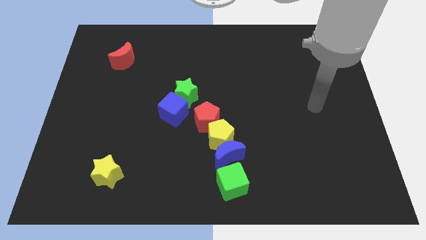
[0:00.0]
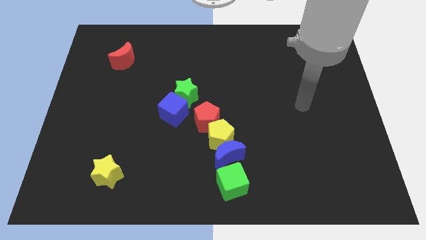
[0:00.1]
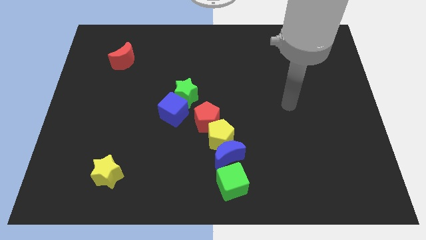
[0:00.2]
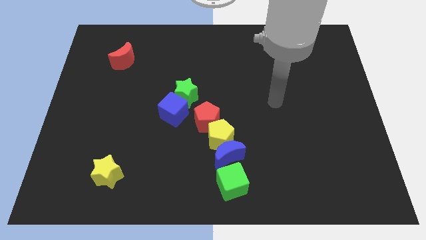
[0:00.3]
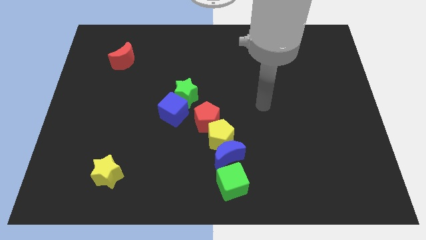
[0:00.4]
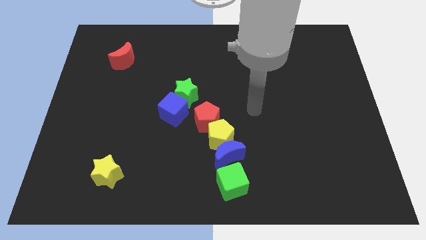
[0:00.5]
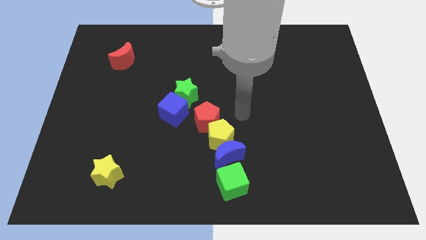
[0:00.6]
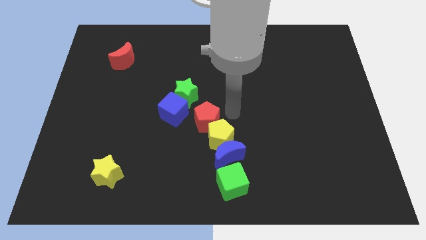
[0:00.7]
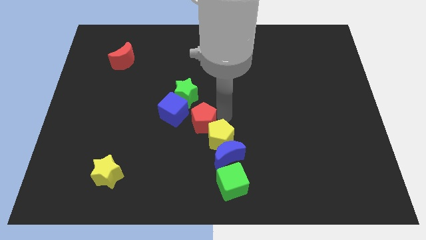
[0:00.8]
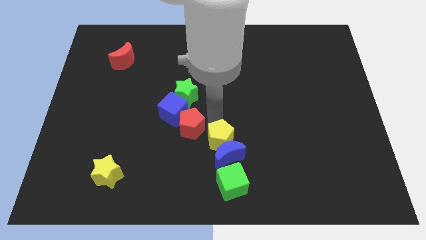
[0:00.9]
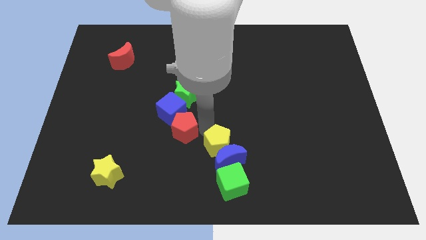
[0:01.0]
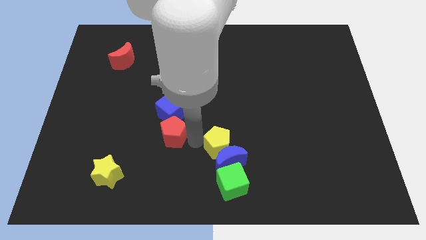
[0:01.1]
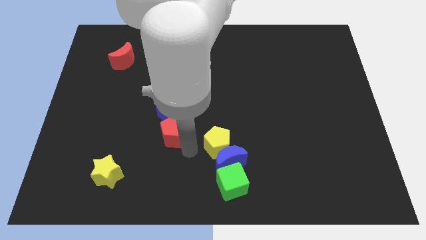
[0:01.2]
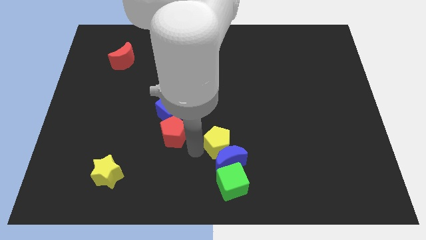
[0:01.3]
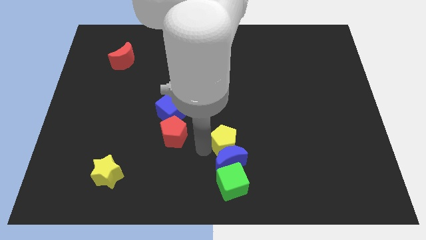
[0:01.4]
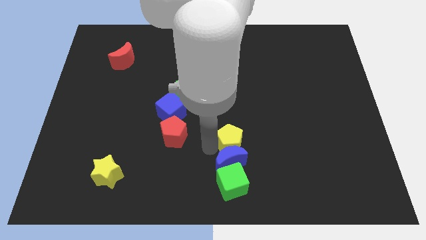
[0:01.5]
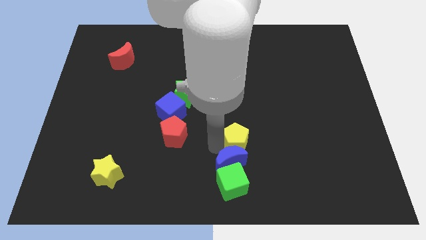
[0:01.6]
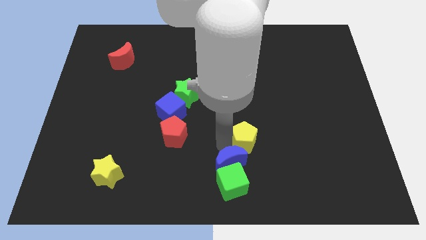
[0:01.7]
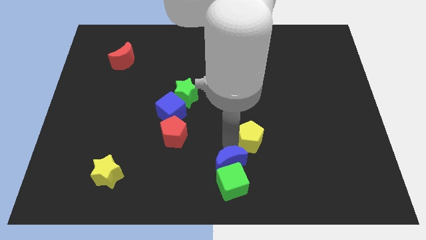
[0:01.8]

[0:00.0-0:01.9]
separate the yellow pentagon from the blue moon and red pentagon

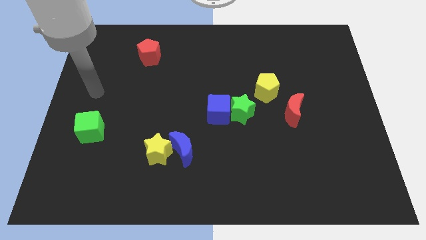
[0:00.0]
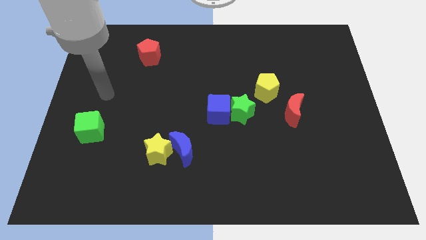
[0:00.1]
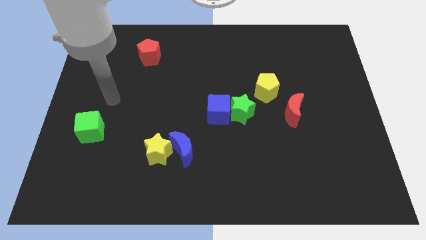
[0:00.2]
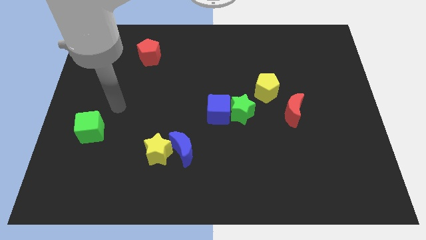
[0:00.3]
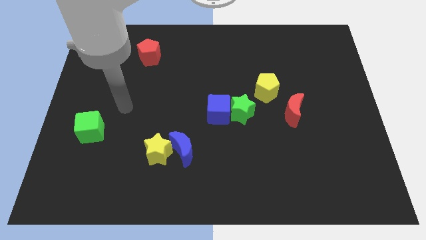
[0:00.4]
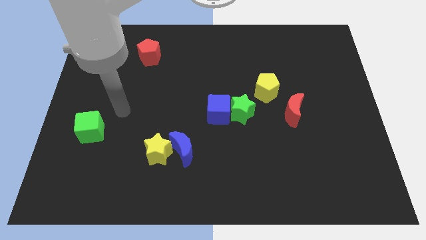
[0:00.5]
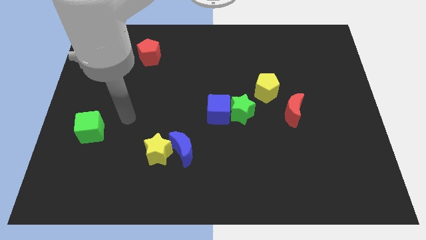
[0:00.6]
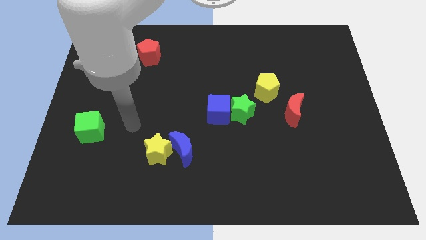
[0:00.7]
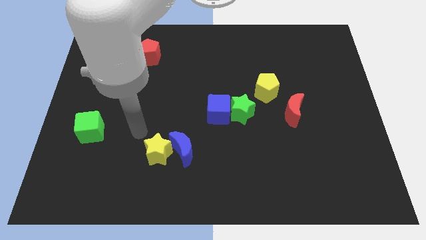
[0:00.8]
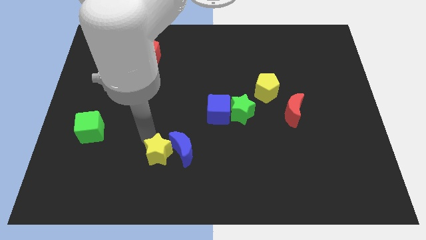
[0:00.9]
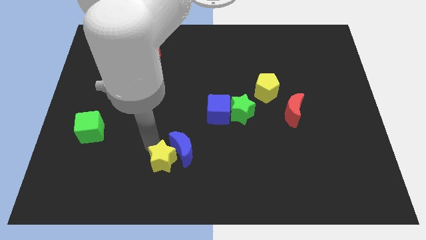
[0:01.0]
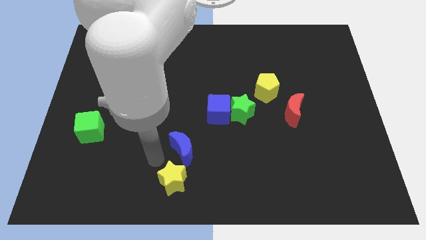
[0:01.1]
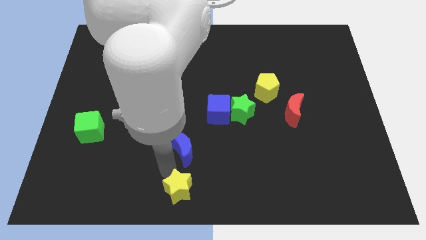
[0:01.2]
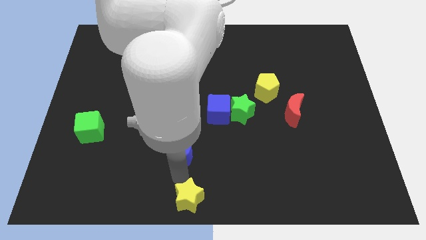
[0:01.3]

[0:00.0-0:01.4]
move the blue moon away from the yellow star

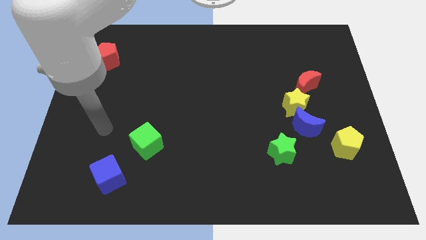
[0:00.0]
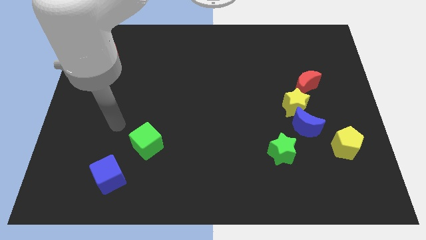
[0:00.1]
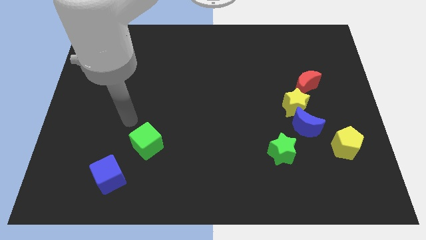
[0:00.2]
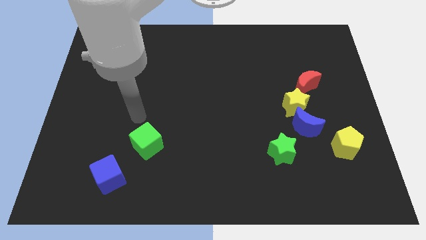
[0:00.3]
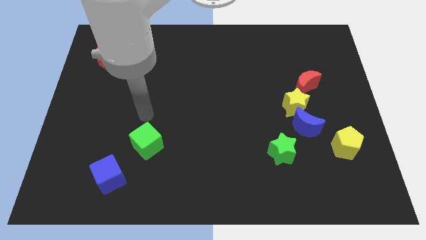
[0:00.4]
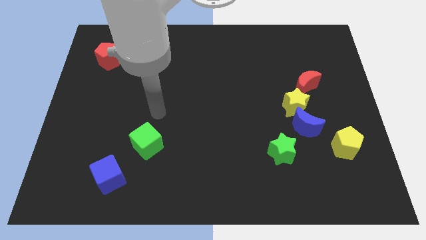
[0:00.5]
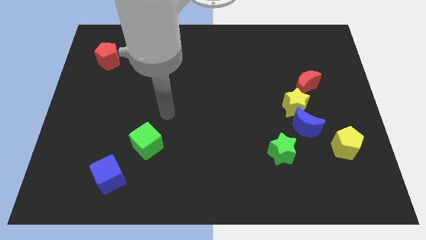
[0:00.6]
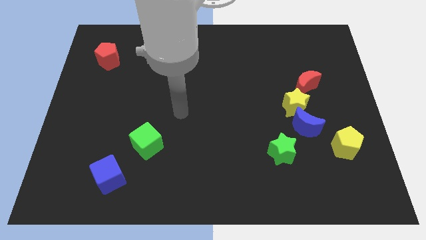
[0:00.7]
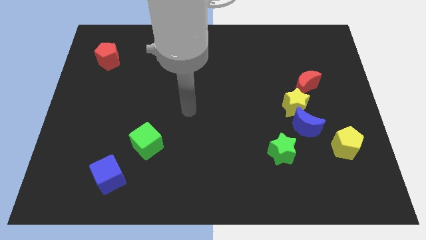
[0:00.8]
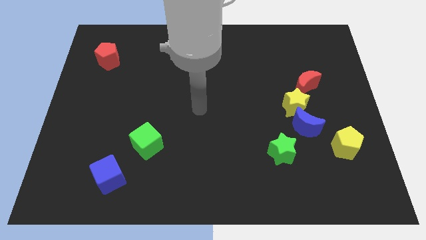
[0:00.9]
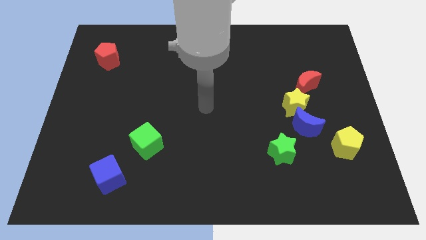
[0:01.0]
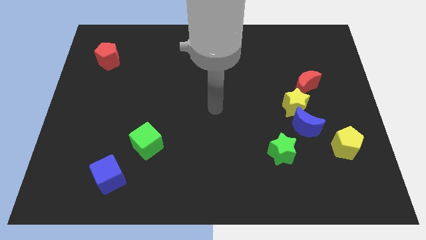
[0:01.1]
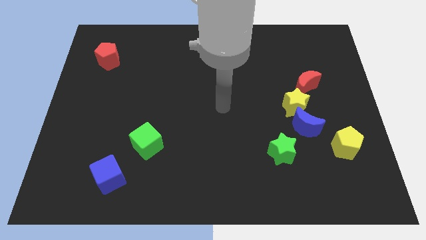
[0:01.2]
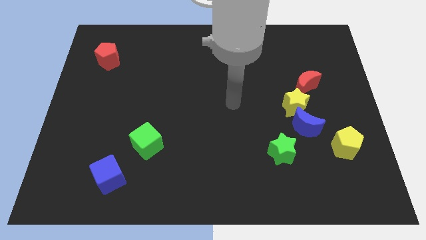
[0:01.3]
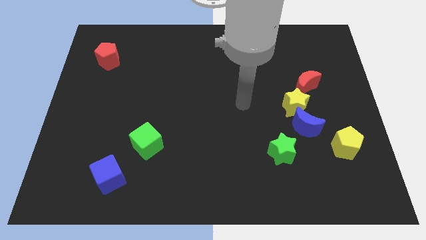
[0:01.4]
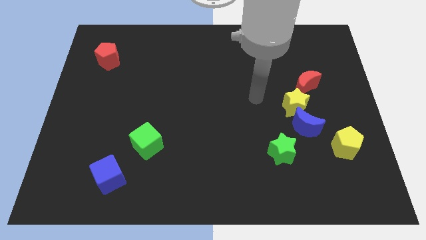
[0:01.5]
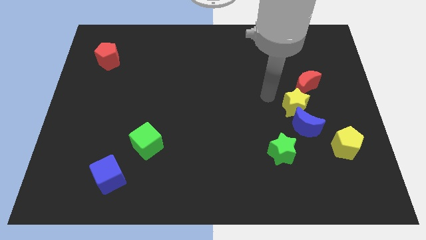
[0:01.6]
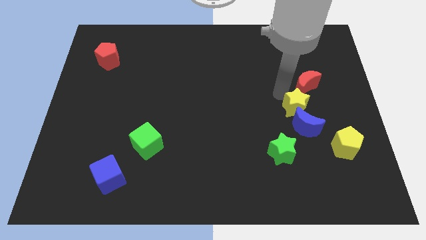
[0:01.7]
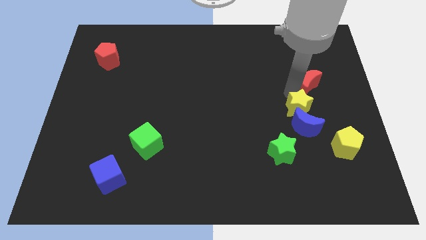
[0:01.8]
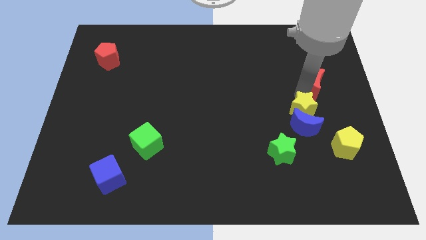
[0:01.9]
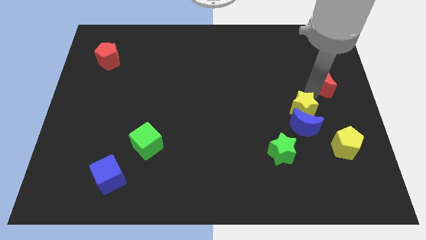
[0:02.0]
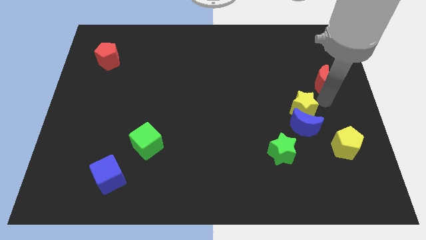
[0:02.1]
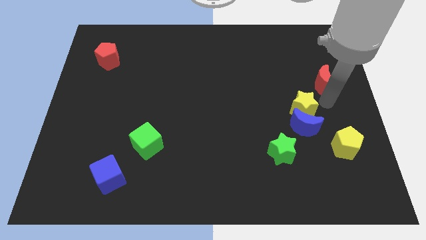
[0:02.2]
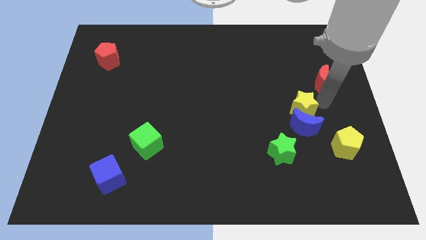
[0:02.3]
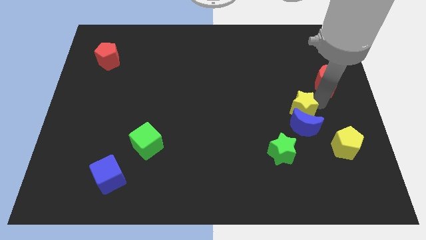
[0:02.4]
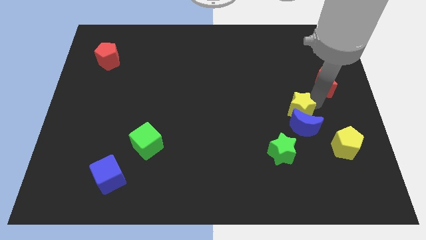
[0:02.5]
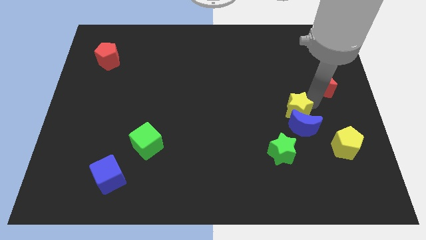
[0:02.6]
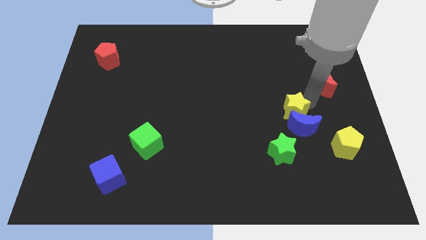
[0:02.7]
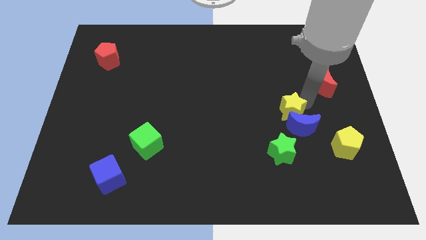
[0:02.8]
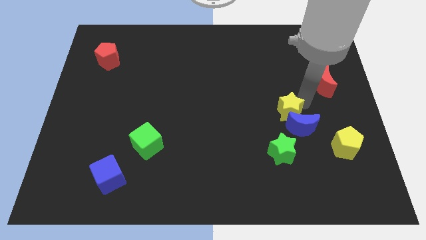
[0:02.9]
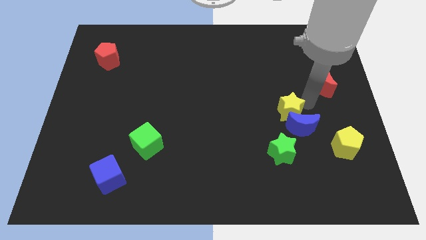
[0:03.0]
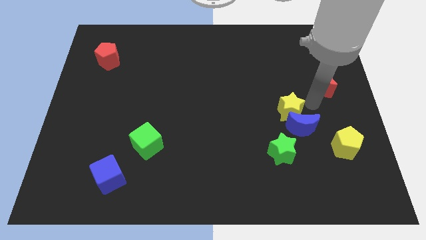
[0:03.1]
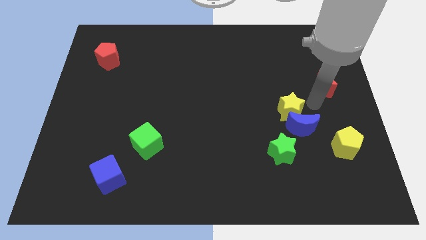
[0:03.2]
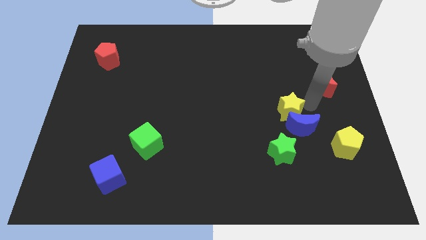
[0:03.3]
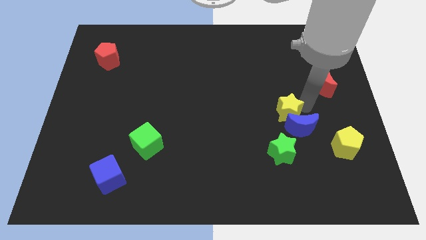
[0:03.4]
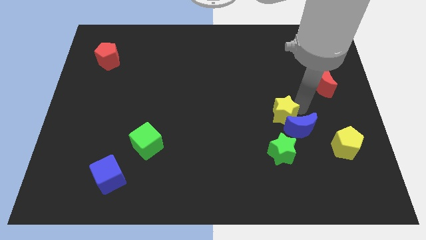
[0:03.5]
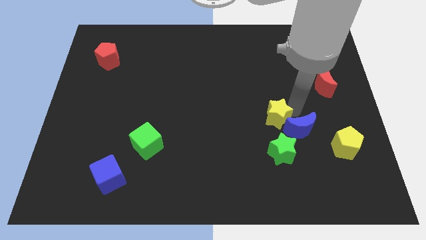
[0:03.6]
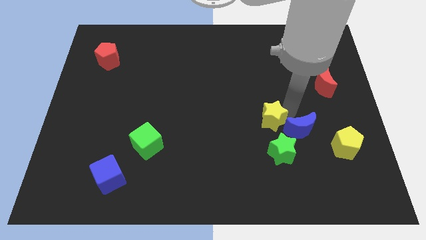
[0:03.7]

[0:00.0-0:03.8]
pull the yellow star apart from the blue moon and red moon

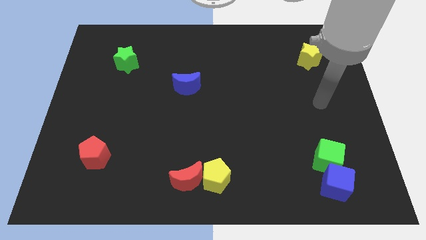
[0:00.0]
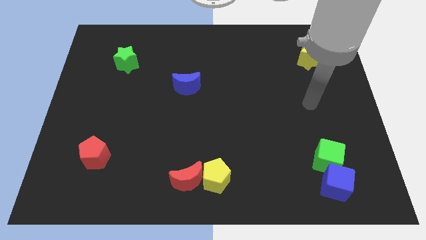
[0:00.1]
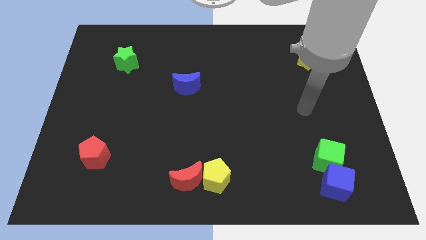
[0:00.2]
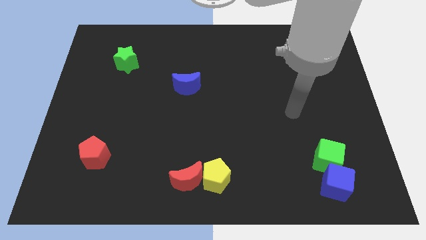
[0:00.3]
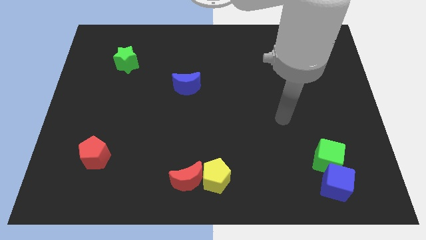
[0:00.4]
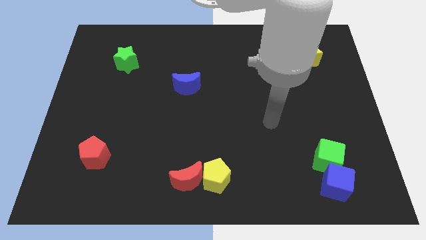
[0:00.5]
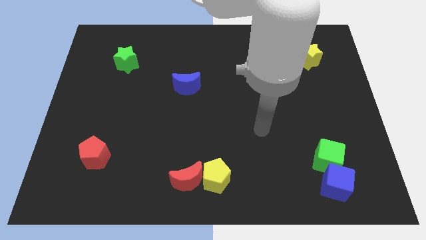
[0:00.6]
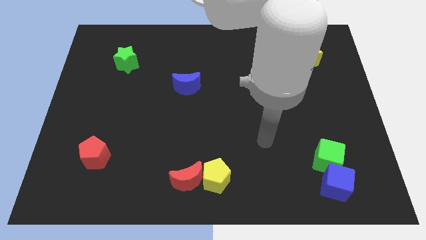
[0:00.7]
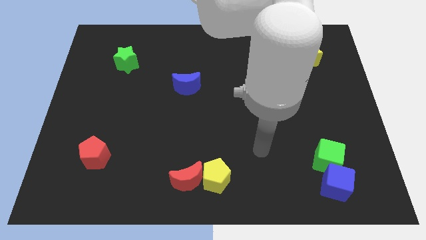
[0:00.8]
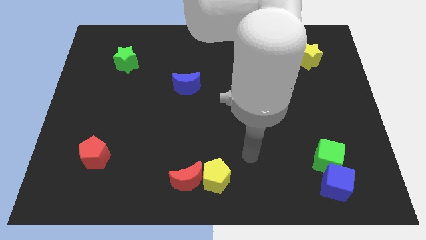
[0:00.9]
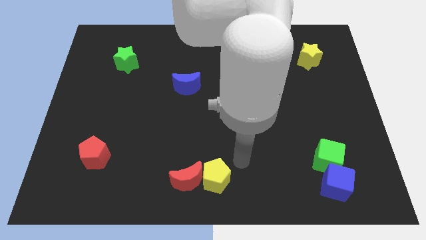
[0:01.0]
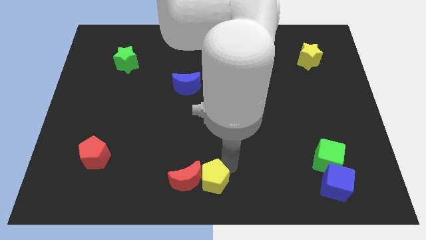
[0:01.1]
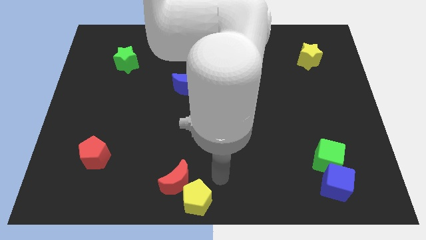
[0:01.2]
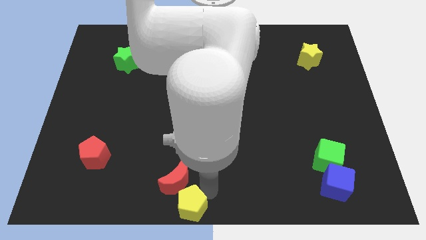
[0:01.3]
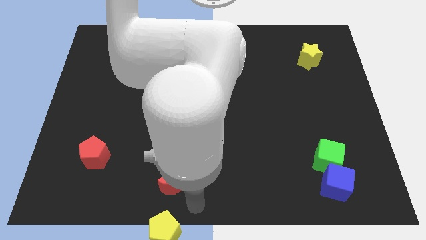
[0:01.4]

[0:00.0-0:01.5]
move the red moon away from the yellow pentagon

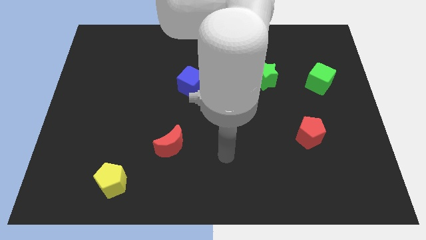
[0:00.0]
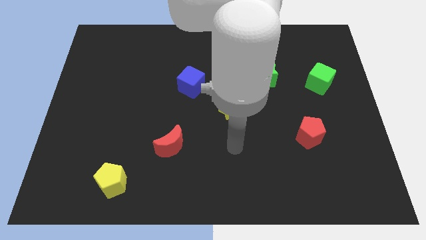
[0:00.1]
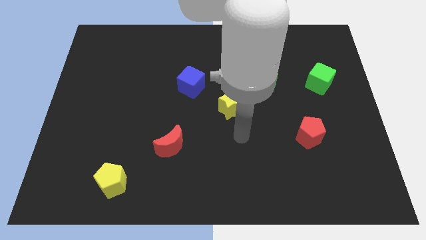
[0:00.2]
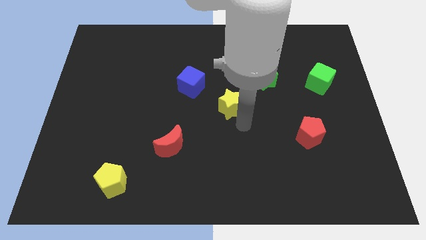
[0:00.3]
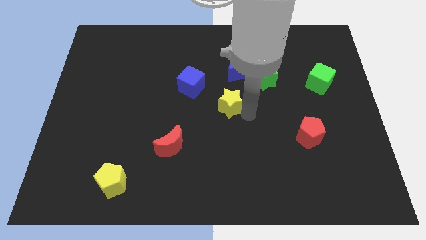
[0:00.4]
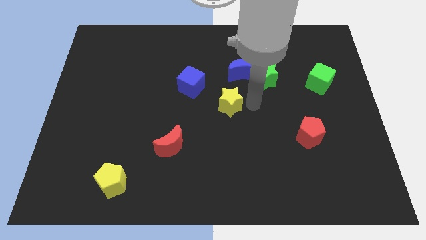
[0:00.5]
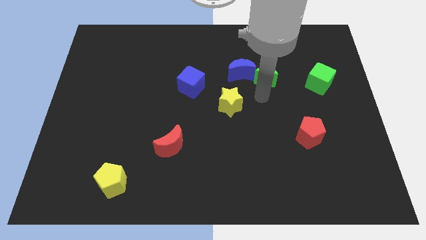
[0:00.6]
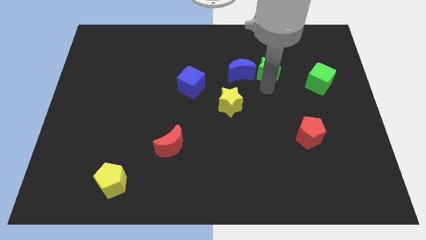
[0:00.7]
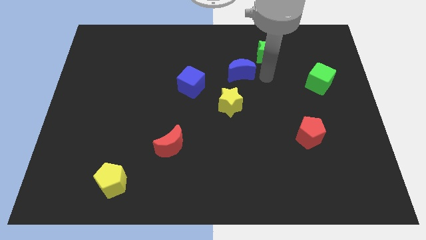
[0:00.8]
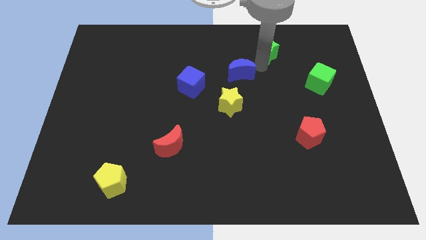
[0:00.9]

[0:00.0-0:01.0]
separate the blue moon from the green star
